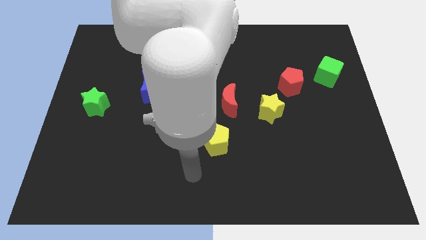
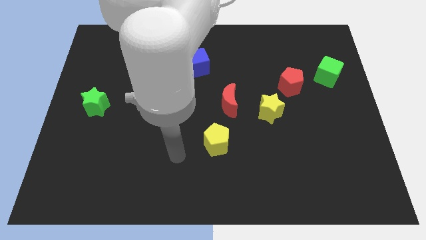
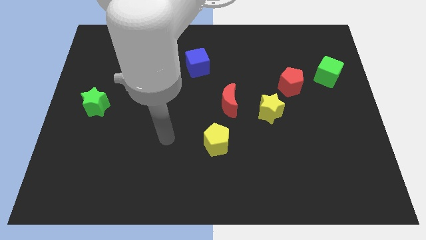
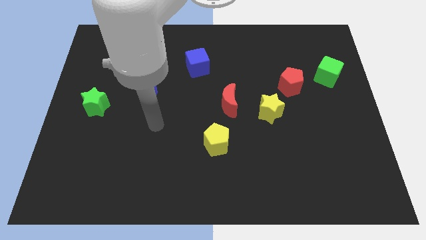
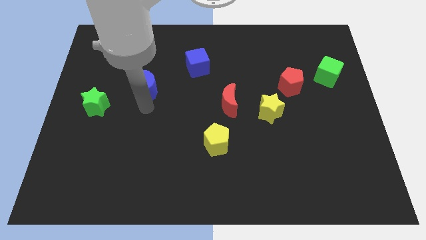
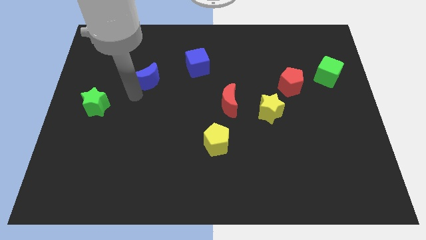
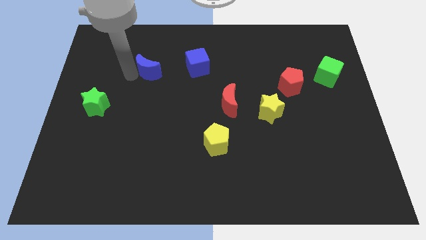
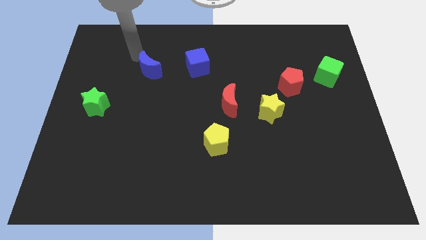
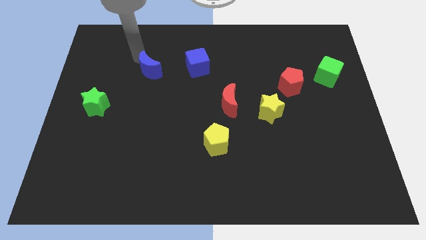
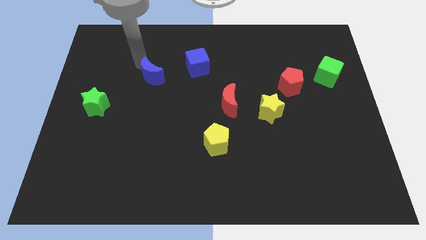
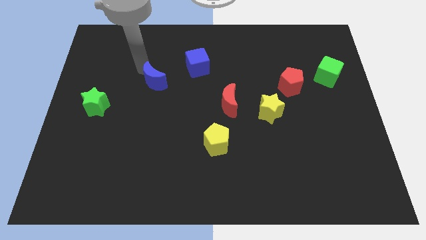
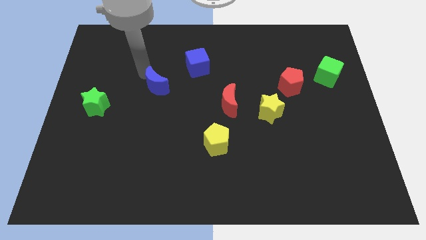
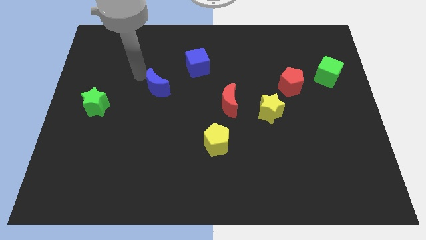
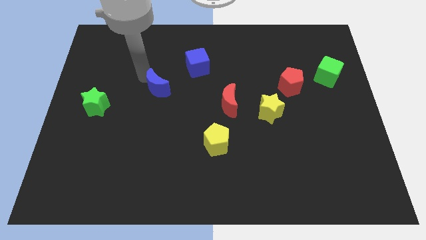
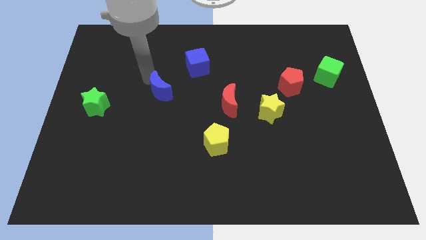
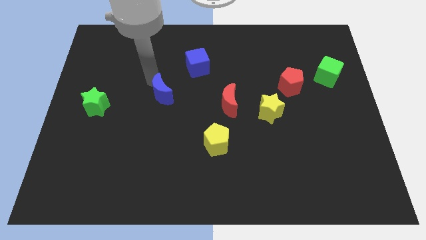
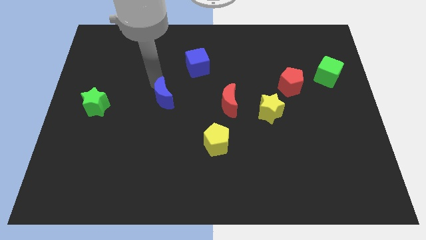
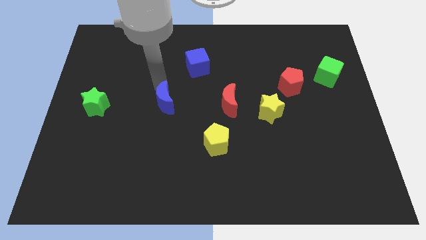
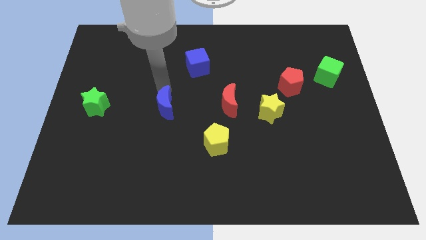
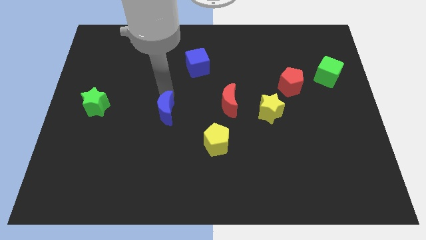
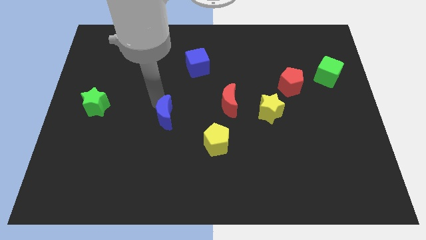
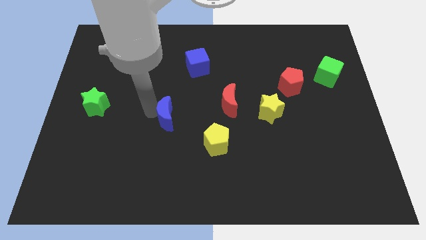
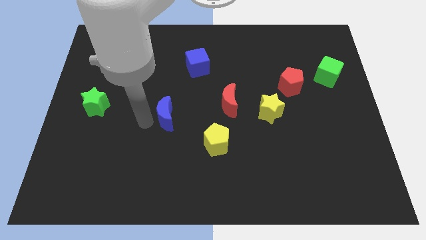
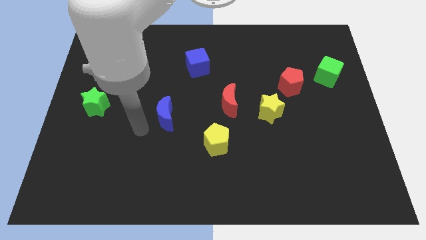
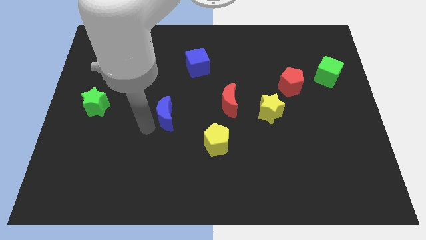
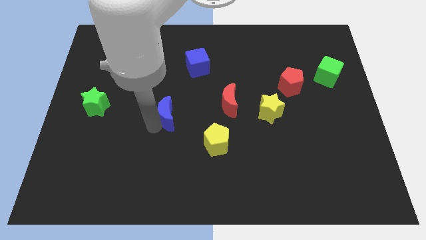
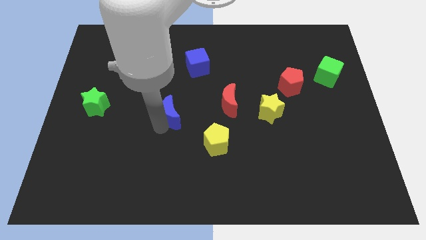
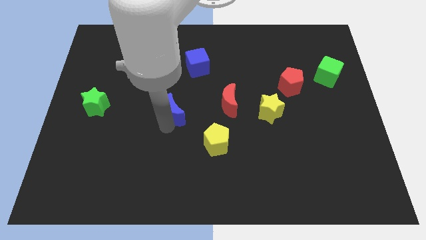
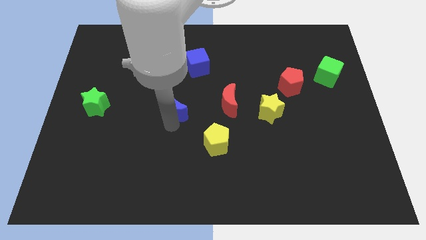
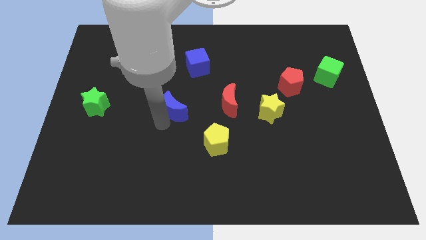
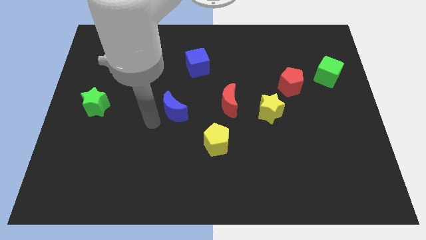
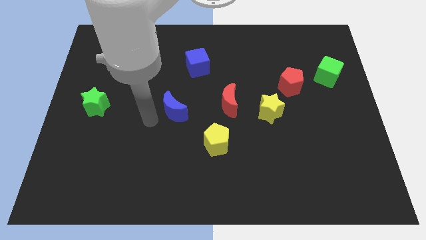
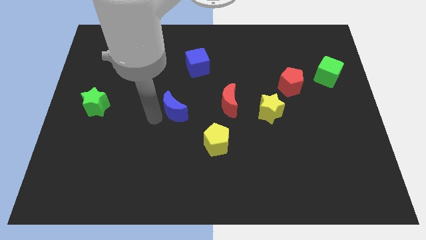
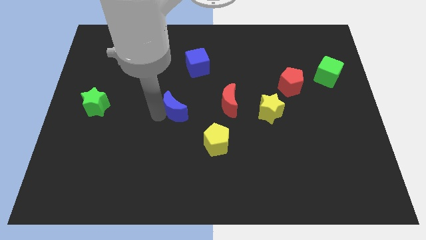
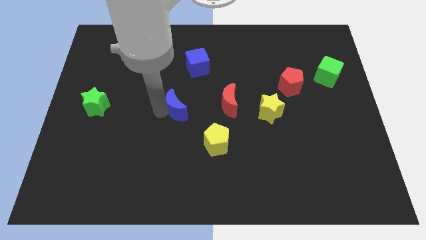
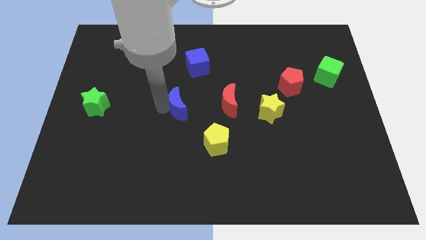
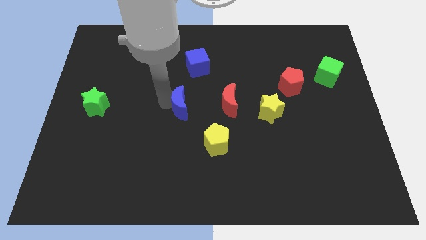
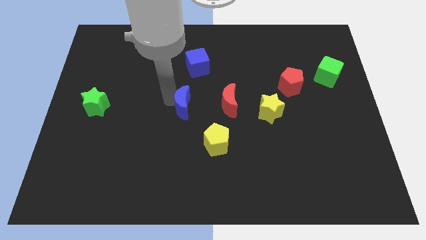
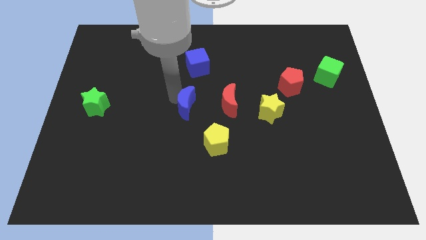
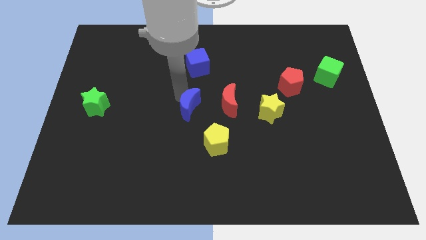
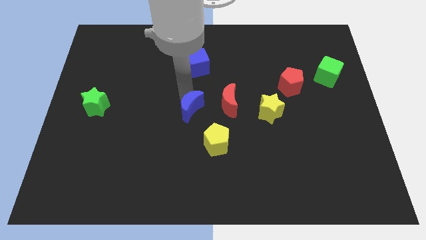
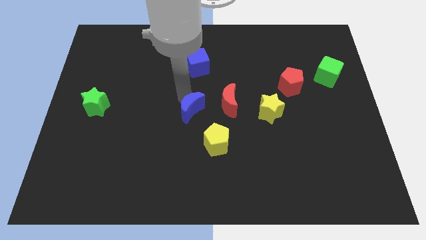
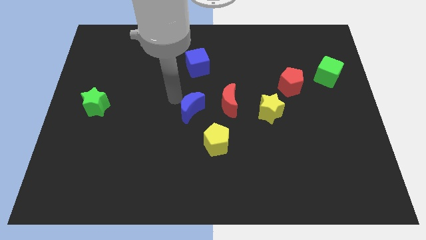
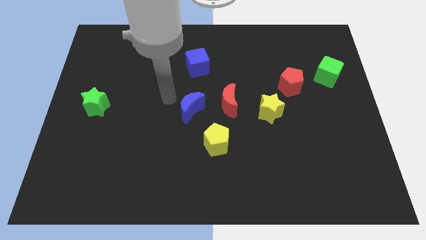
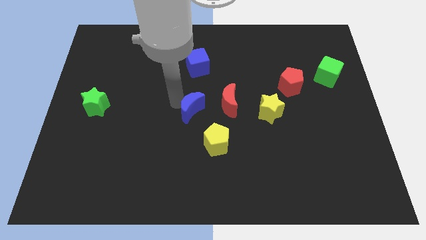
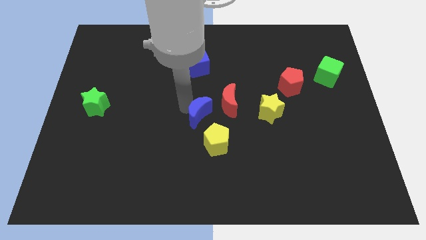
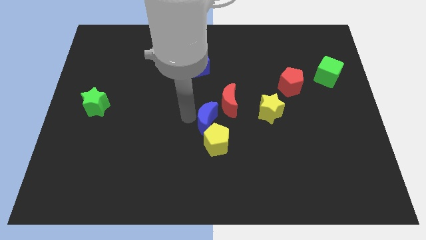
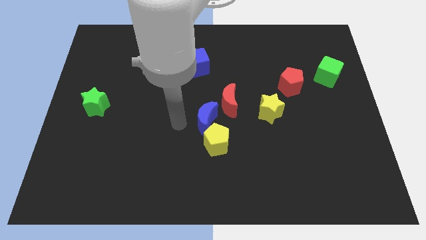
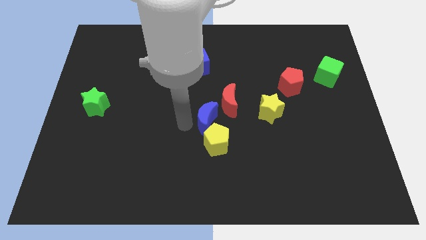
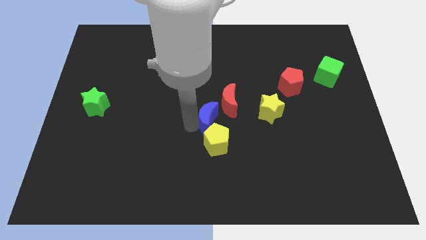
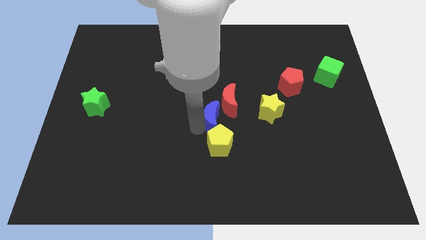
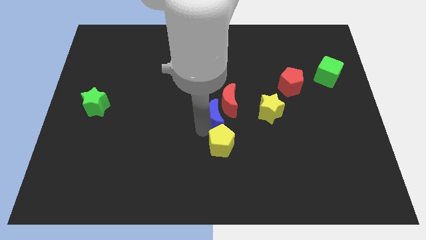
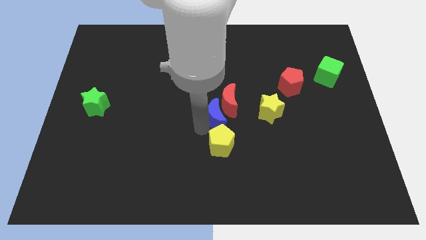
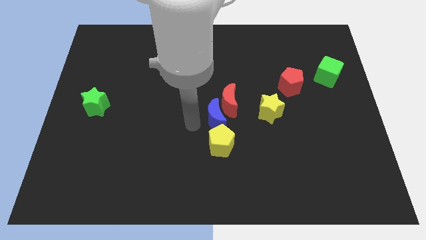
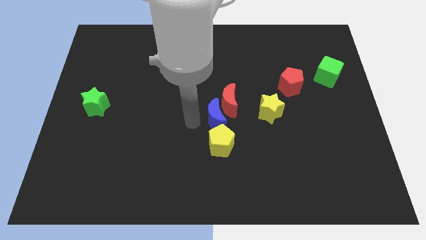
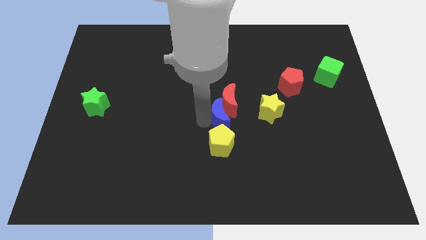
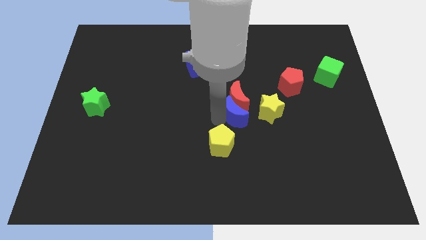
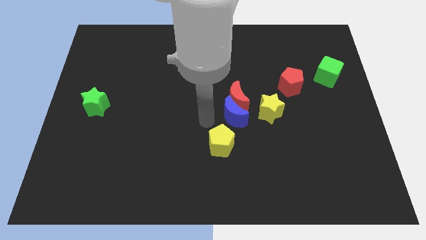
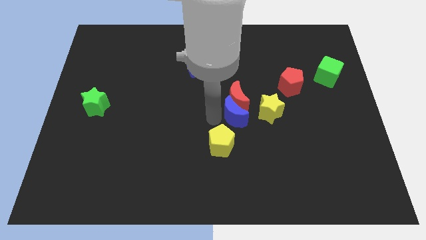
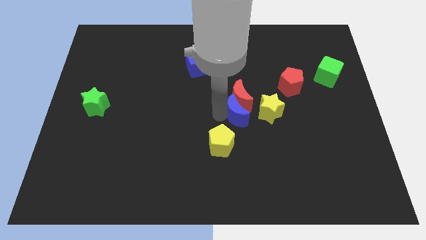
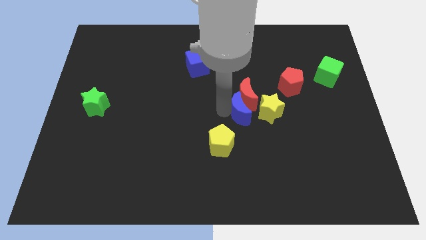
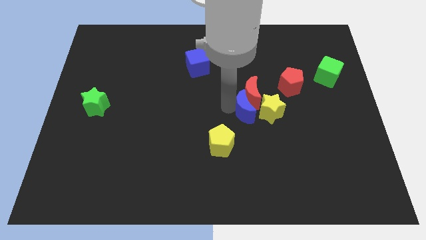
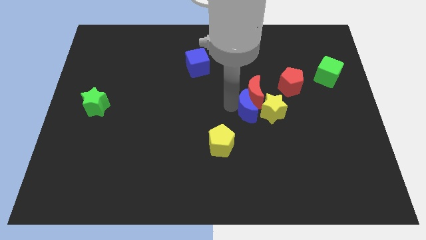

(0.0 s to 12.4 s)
push the blue moon close to the yellow star

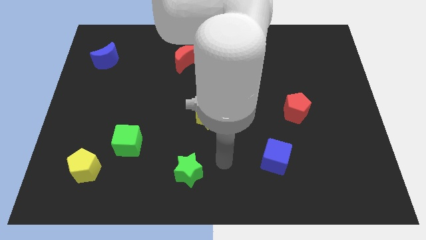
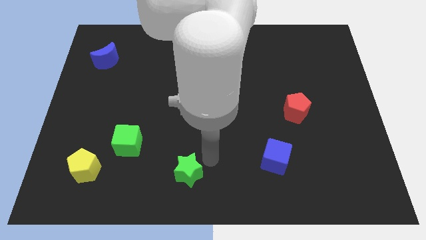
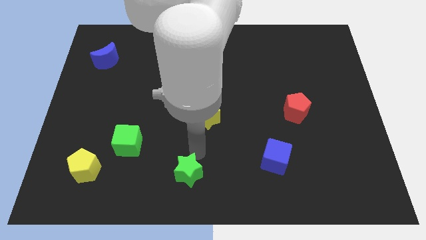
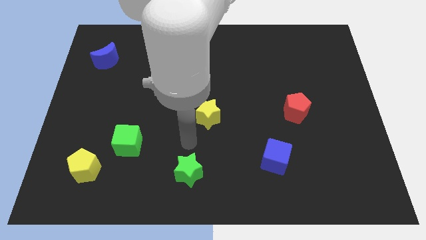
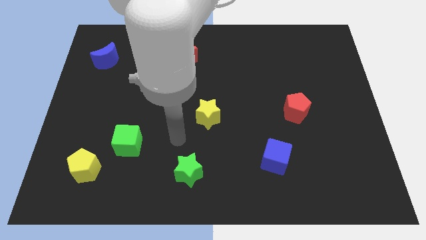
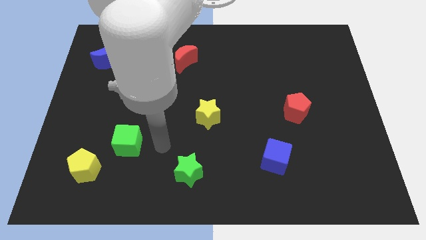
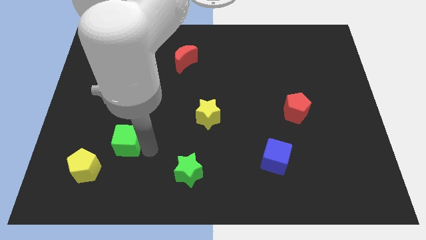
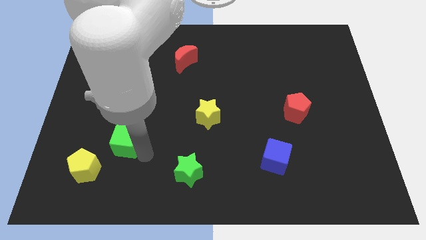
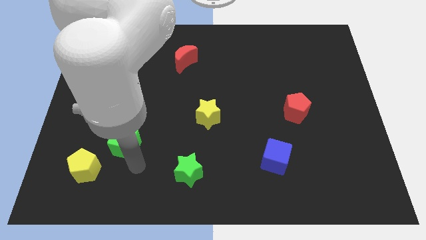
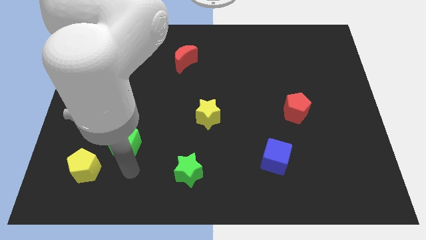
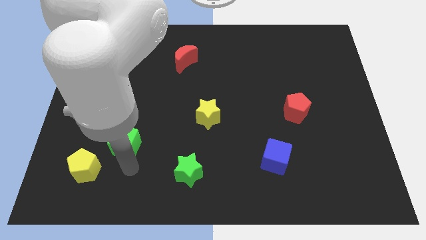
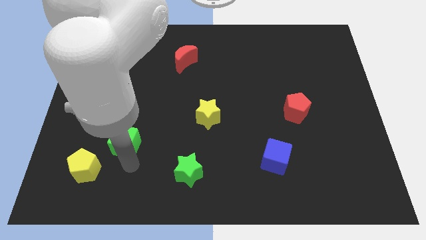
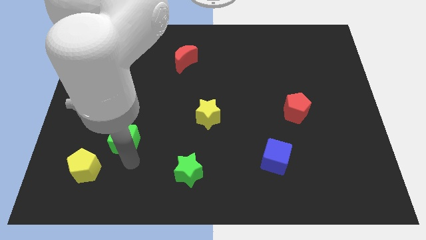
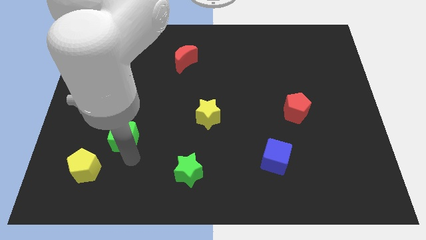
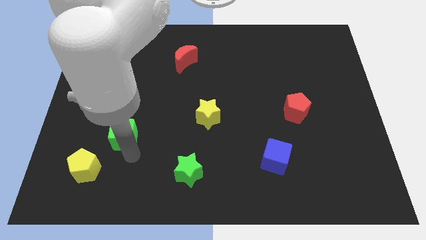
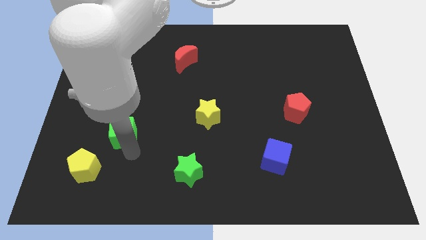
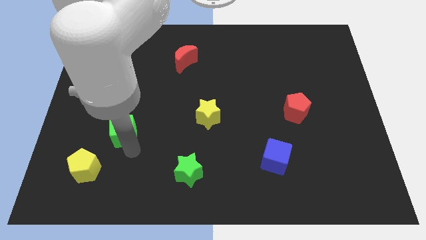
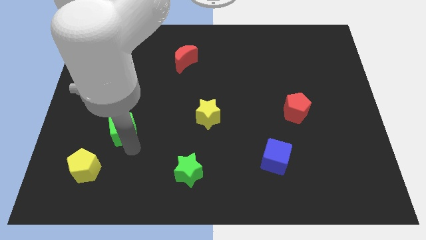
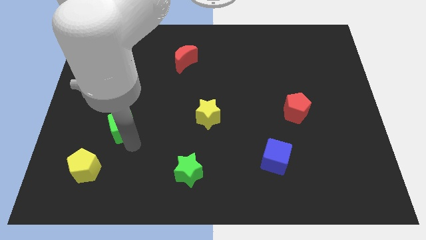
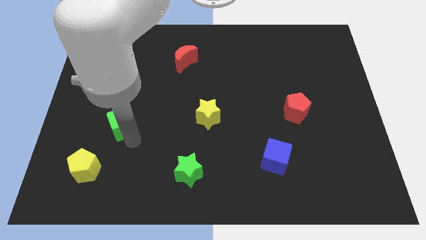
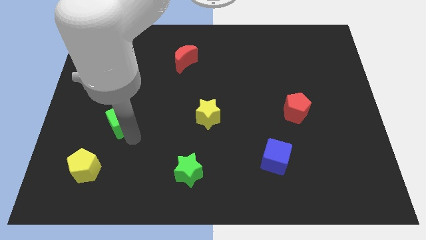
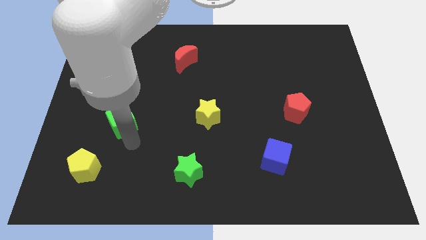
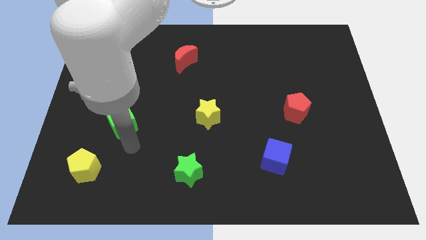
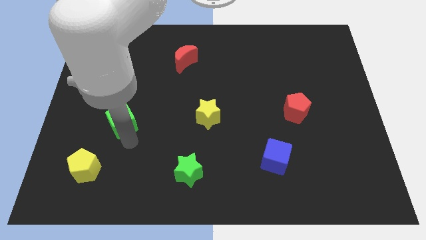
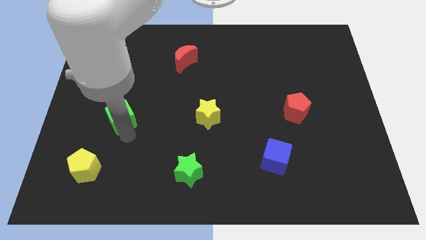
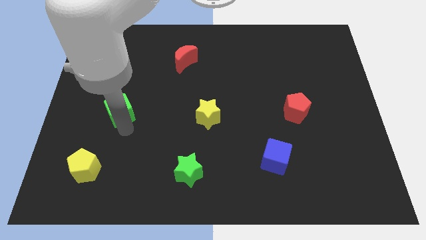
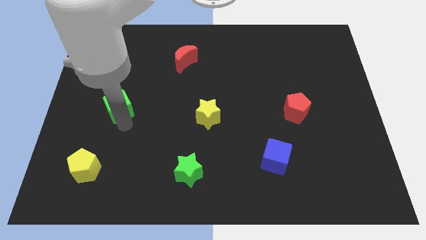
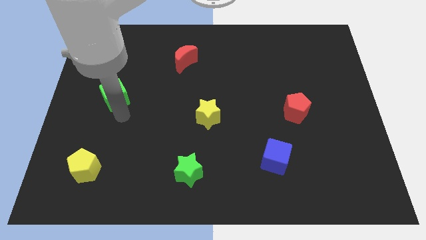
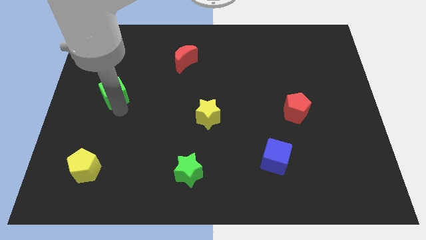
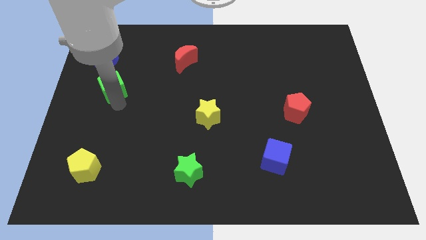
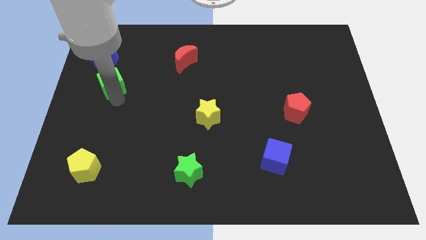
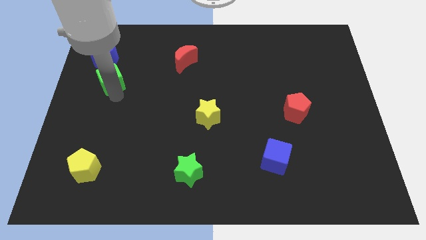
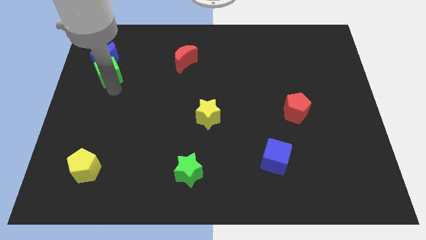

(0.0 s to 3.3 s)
move the green cube to the blue moon
